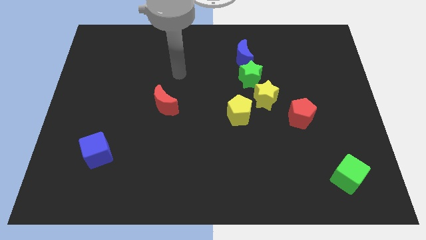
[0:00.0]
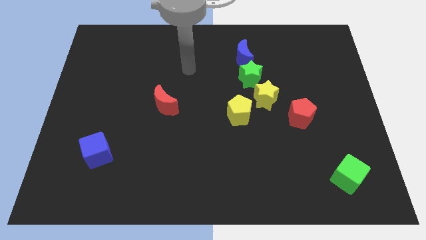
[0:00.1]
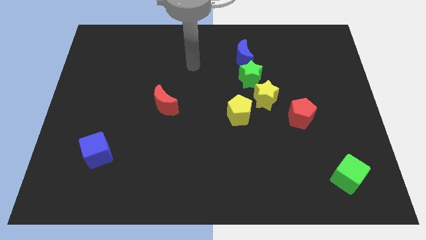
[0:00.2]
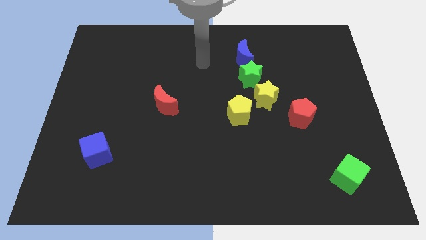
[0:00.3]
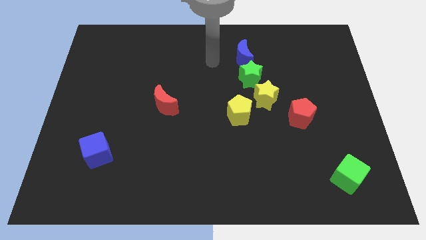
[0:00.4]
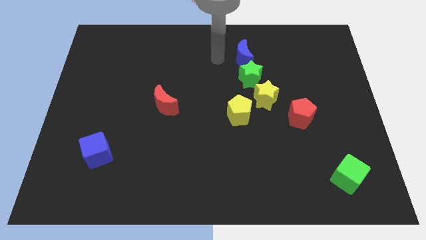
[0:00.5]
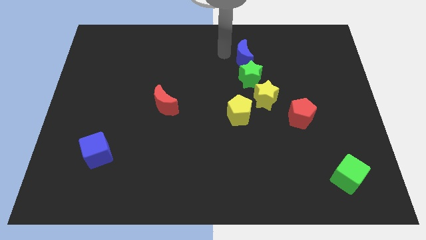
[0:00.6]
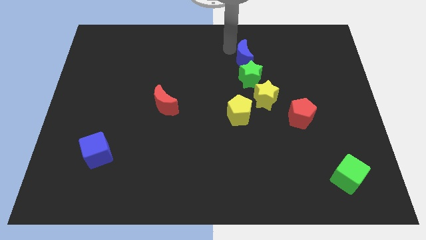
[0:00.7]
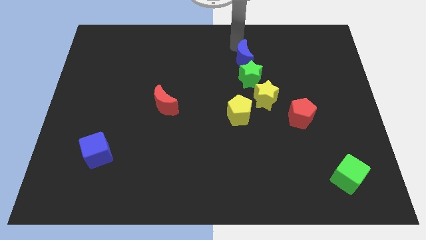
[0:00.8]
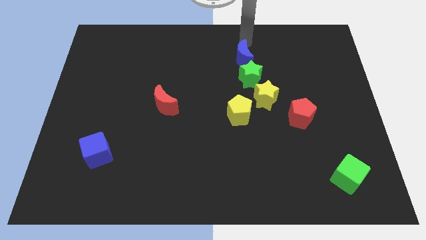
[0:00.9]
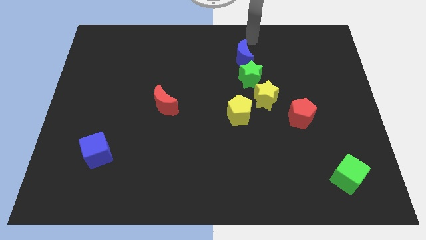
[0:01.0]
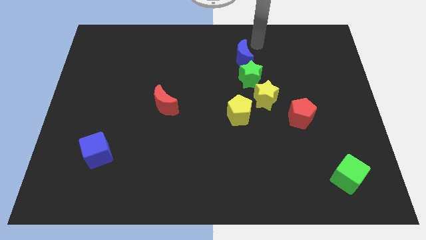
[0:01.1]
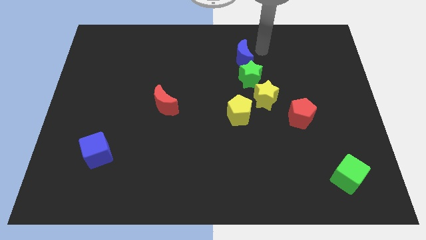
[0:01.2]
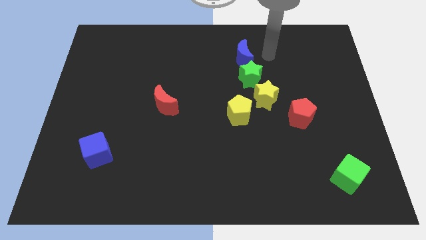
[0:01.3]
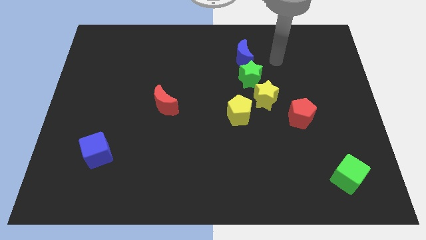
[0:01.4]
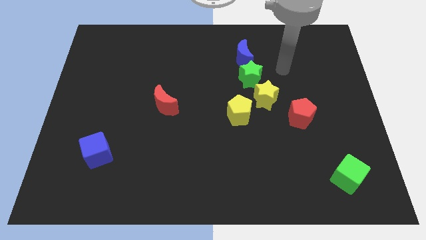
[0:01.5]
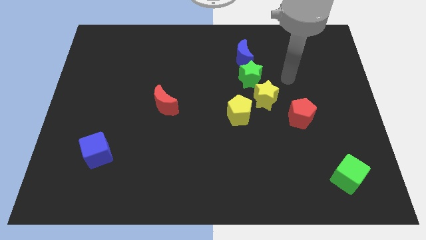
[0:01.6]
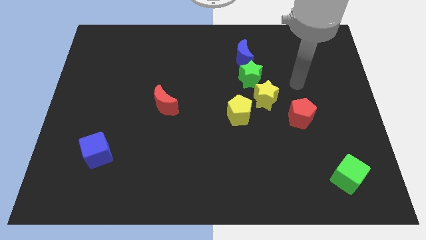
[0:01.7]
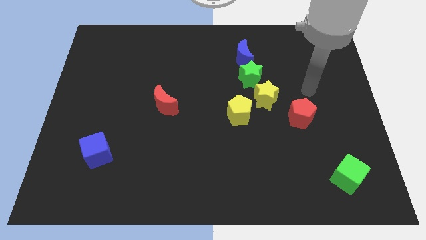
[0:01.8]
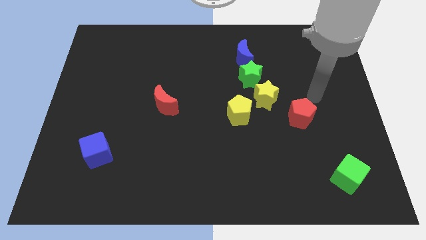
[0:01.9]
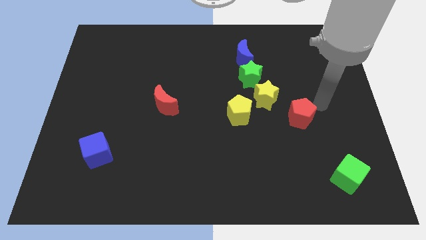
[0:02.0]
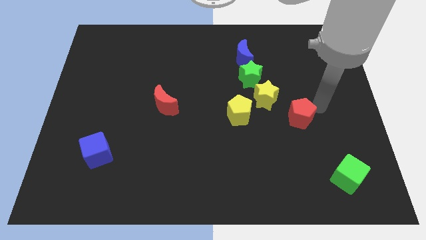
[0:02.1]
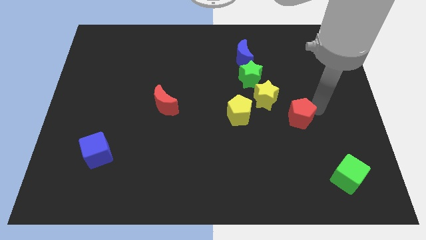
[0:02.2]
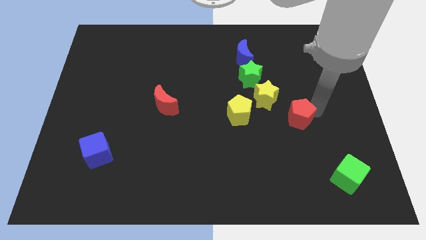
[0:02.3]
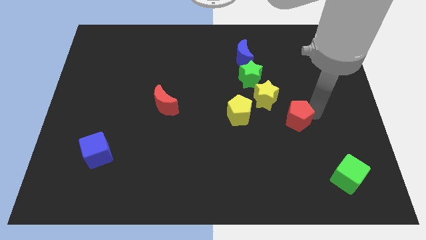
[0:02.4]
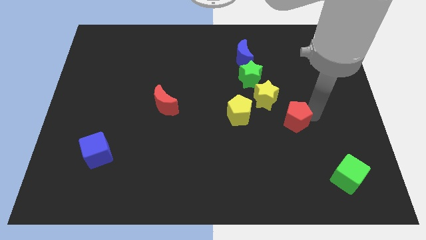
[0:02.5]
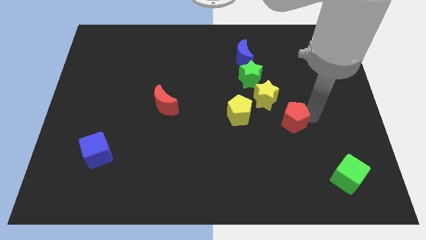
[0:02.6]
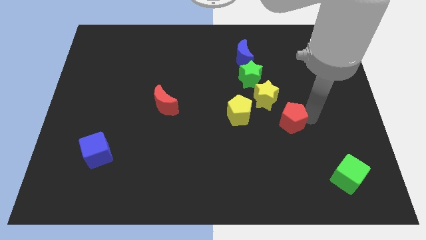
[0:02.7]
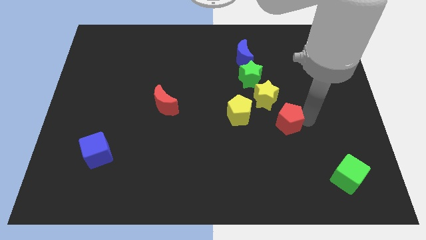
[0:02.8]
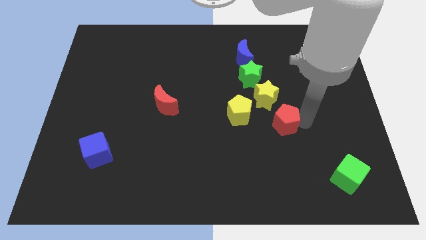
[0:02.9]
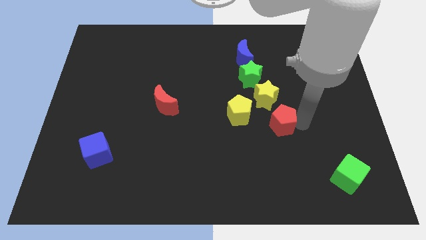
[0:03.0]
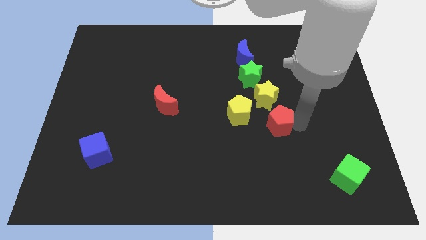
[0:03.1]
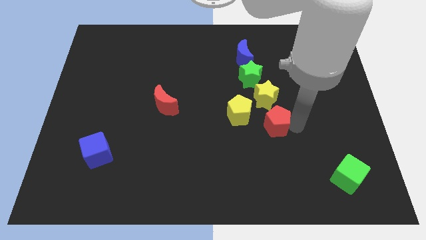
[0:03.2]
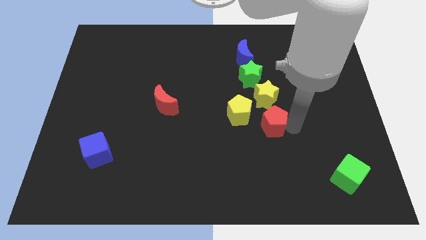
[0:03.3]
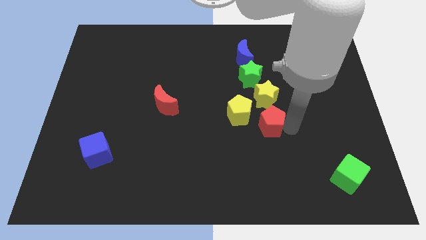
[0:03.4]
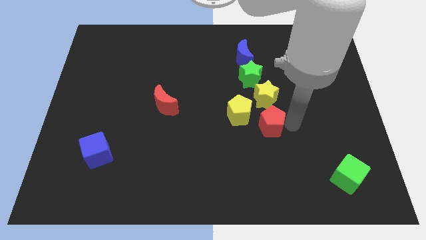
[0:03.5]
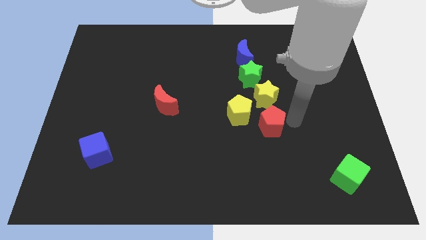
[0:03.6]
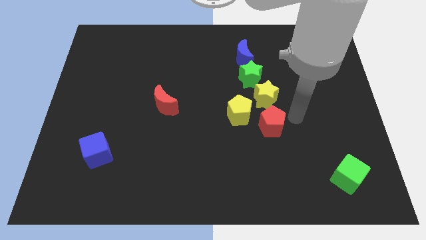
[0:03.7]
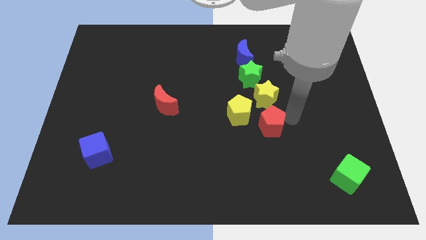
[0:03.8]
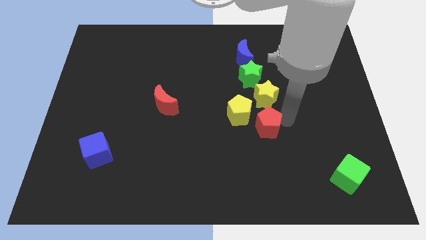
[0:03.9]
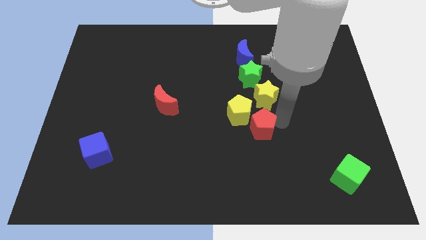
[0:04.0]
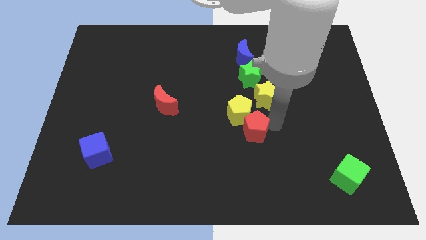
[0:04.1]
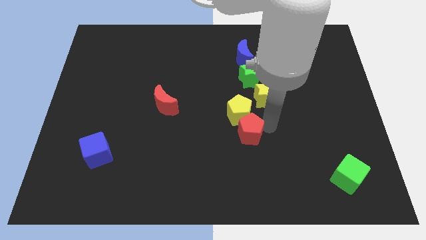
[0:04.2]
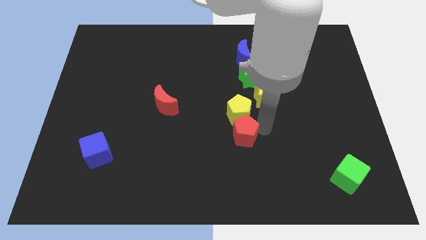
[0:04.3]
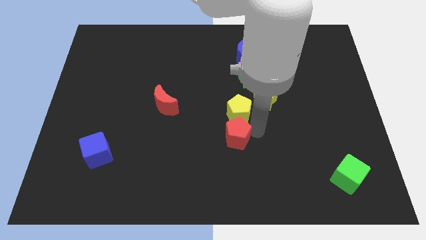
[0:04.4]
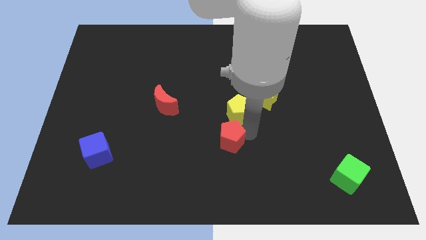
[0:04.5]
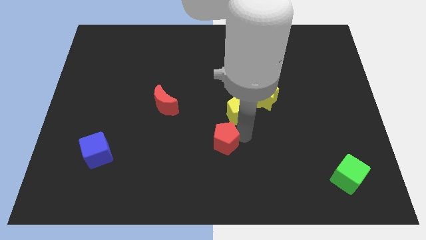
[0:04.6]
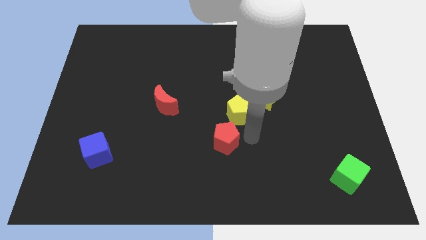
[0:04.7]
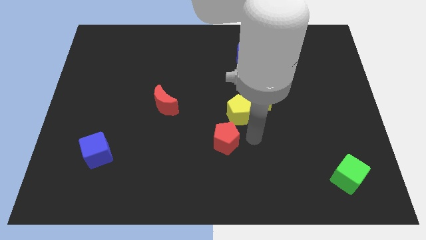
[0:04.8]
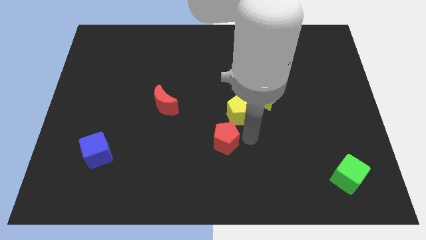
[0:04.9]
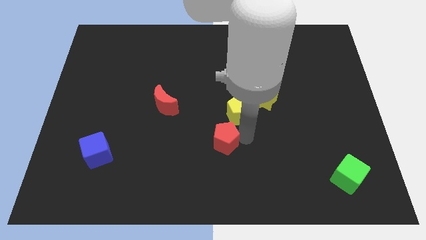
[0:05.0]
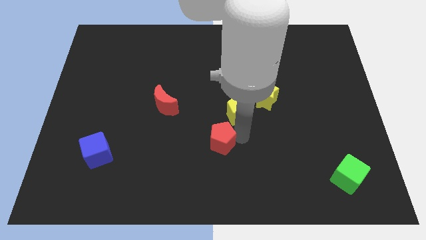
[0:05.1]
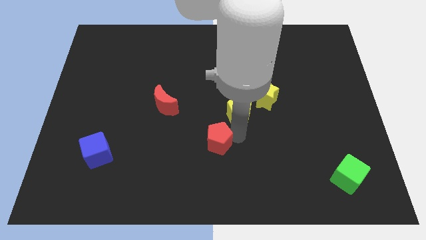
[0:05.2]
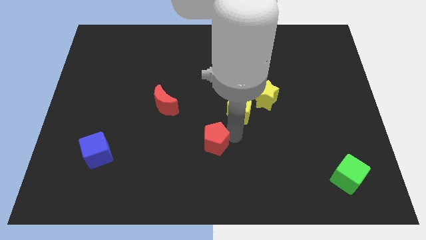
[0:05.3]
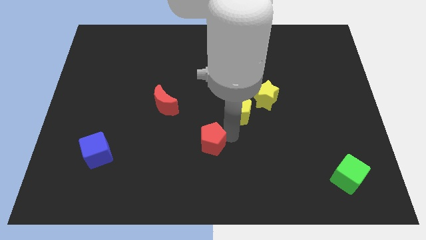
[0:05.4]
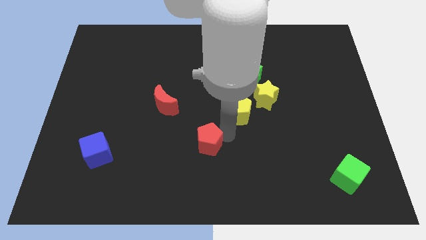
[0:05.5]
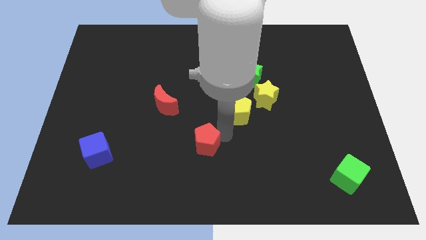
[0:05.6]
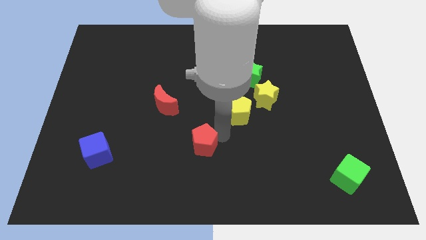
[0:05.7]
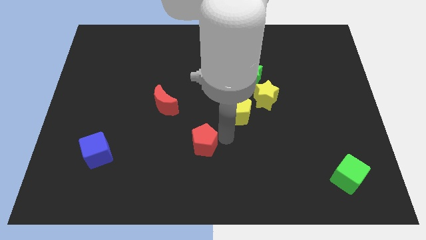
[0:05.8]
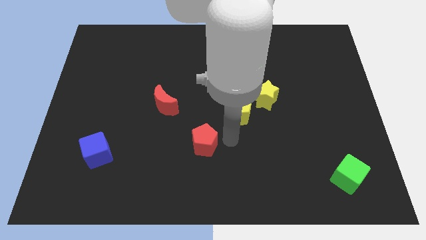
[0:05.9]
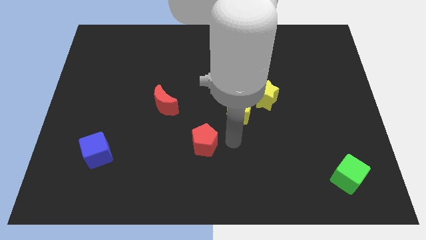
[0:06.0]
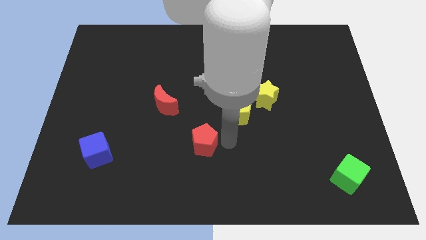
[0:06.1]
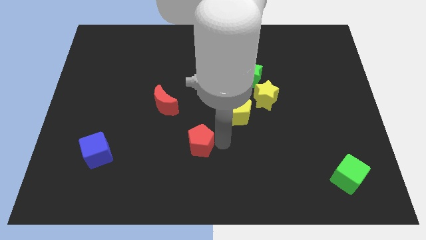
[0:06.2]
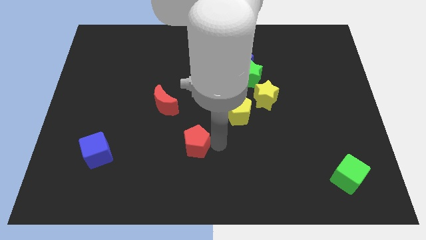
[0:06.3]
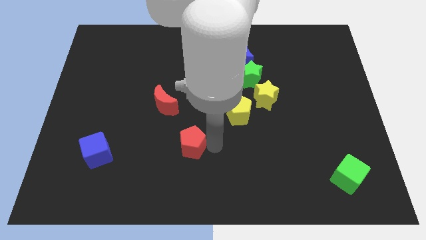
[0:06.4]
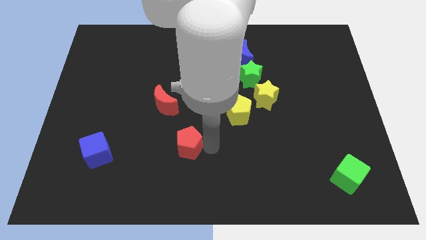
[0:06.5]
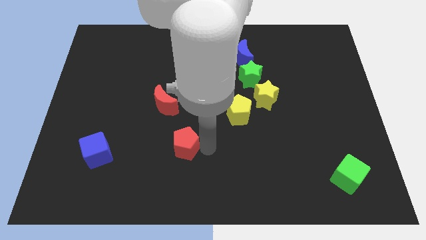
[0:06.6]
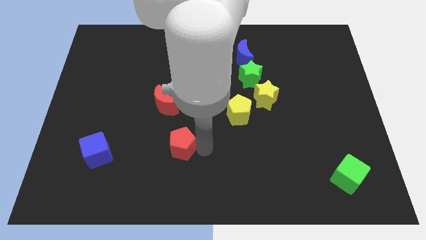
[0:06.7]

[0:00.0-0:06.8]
put the red pentagon below the red moon

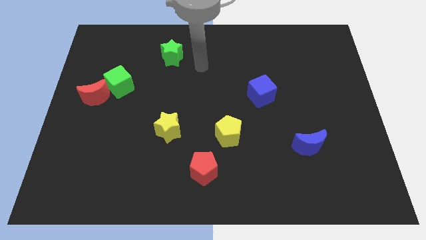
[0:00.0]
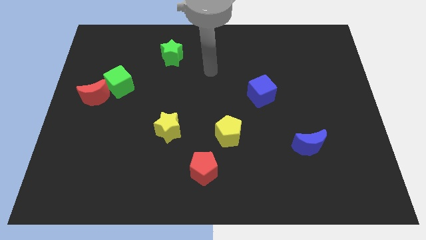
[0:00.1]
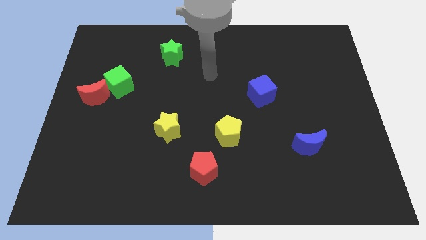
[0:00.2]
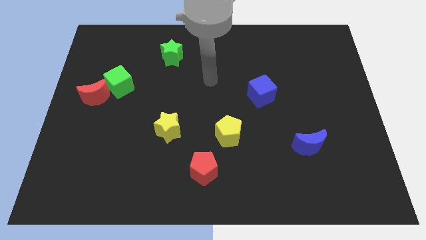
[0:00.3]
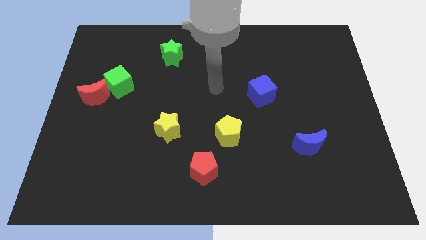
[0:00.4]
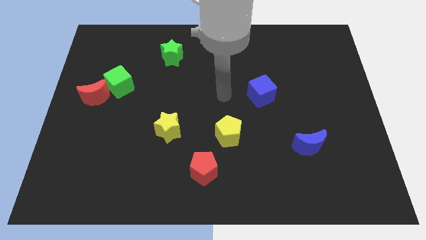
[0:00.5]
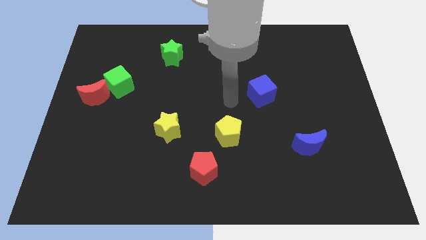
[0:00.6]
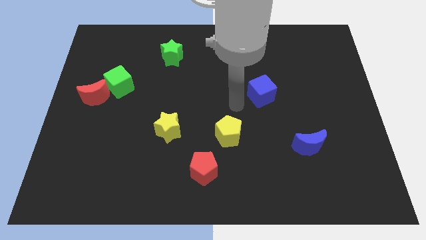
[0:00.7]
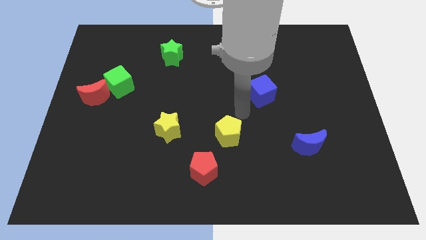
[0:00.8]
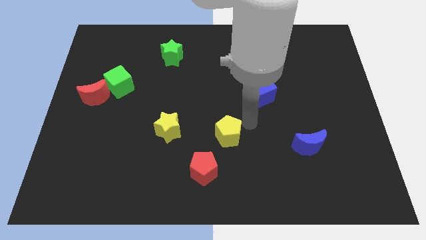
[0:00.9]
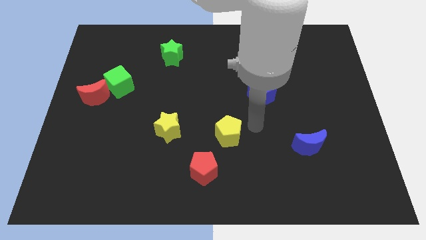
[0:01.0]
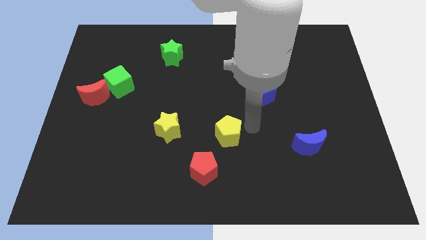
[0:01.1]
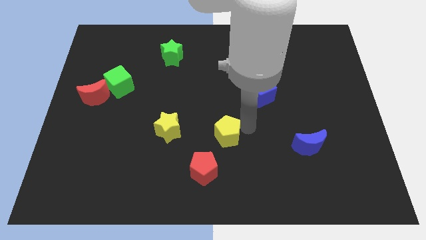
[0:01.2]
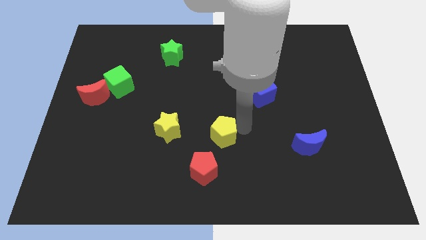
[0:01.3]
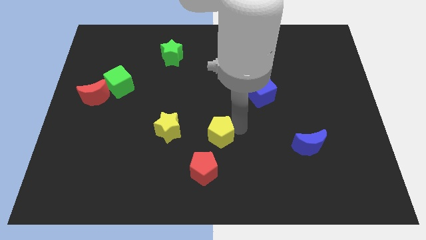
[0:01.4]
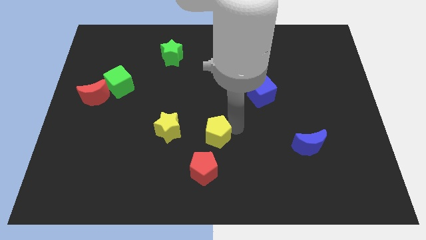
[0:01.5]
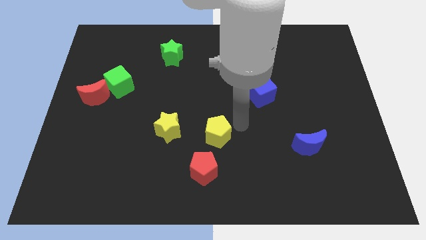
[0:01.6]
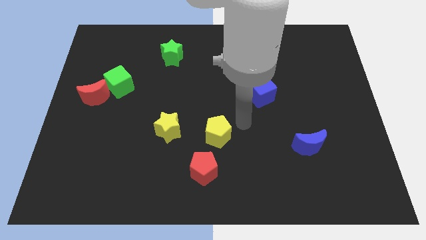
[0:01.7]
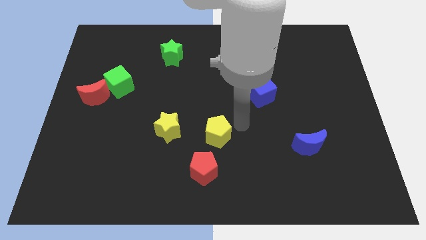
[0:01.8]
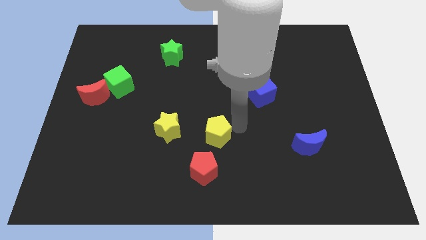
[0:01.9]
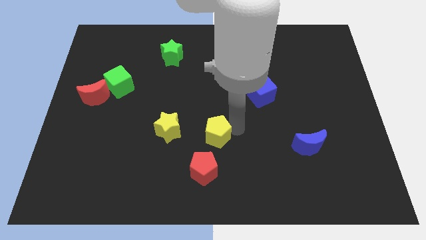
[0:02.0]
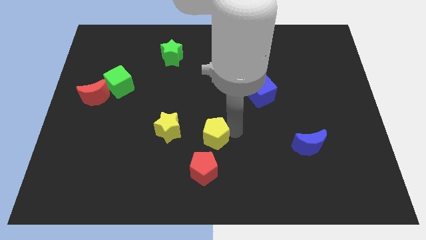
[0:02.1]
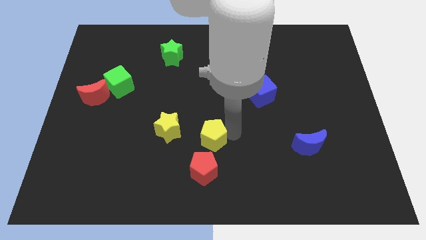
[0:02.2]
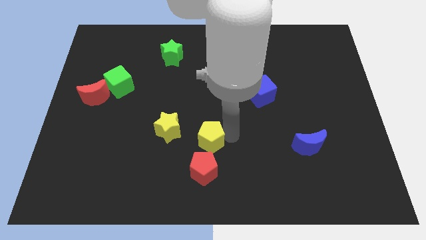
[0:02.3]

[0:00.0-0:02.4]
put the yellow pentagon diagonally down and to the right of the yellow star
